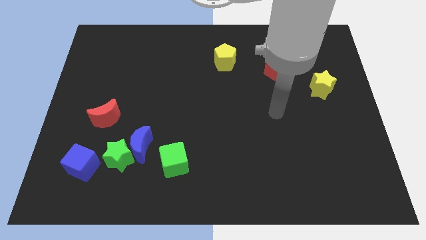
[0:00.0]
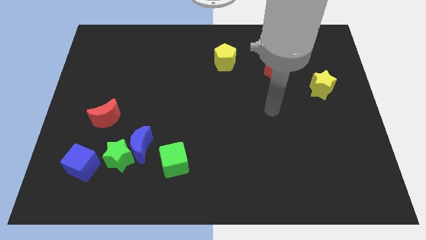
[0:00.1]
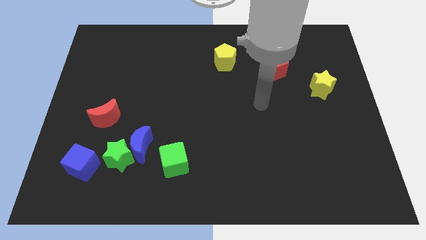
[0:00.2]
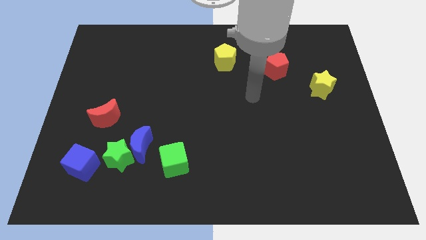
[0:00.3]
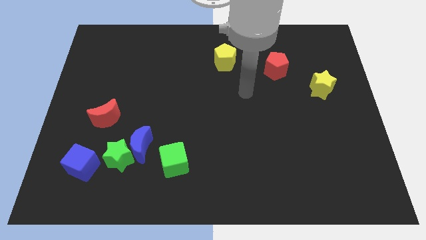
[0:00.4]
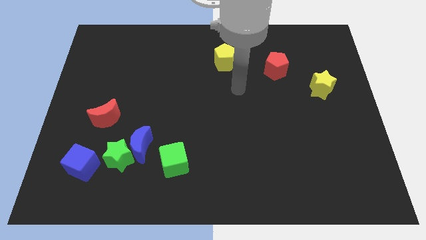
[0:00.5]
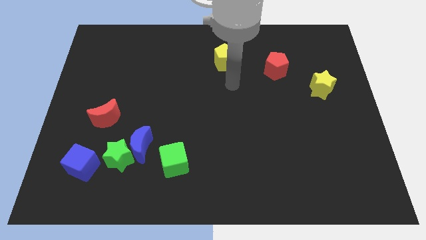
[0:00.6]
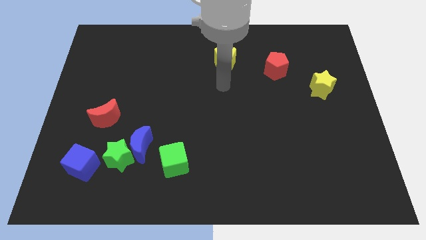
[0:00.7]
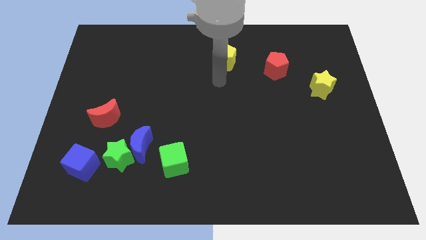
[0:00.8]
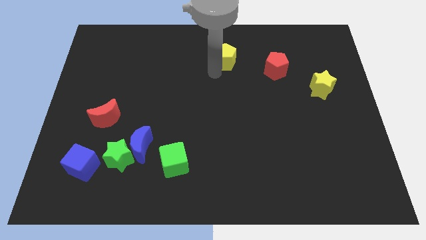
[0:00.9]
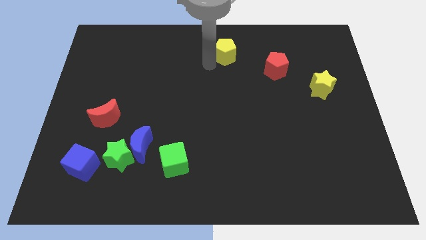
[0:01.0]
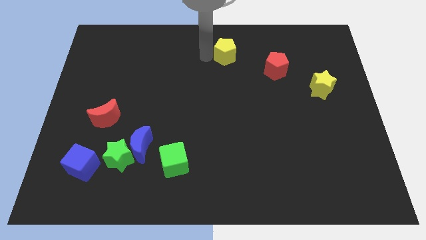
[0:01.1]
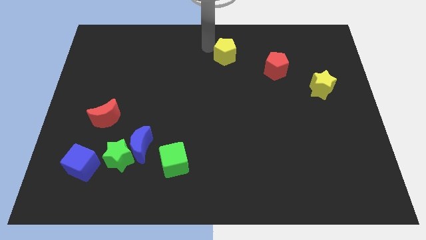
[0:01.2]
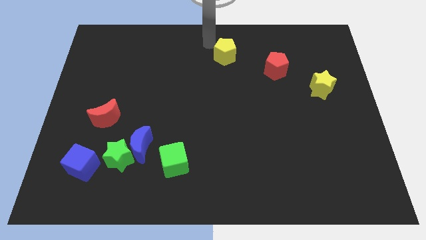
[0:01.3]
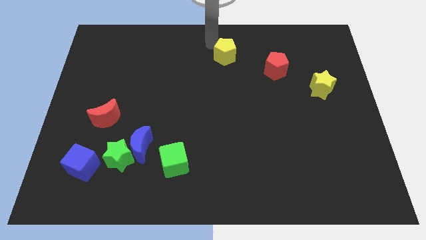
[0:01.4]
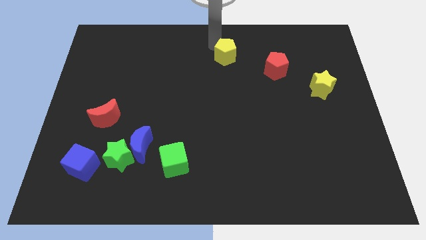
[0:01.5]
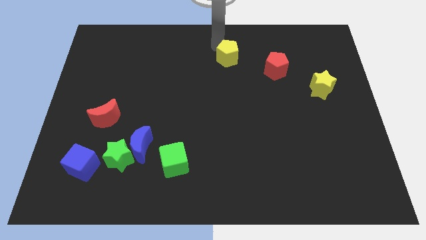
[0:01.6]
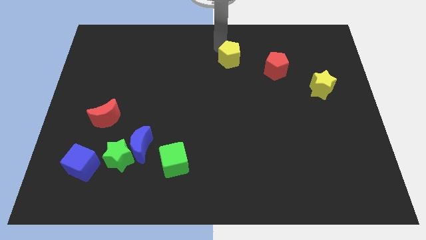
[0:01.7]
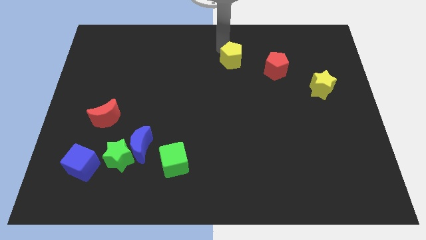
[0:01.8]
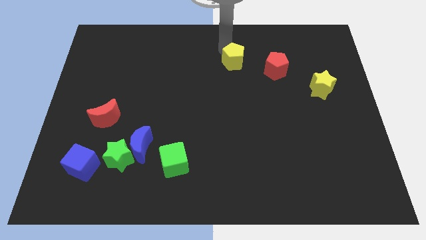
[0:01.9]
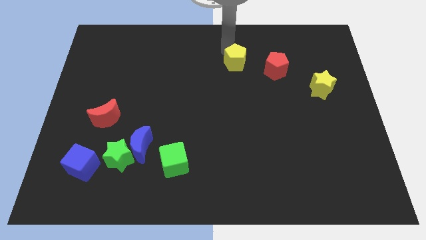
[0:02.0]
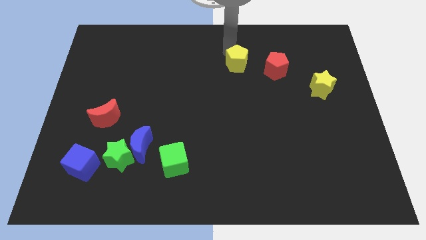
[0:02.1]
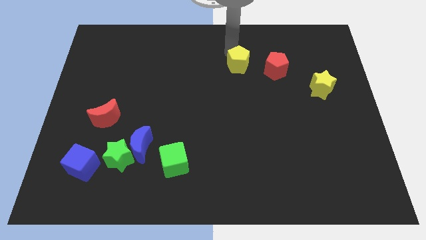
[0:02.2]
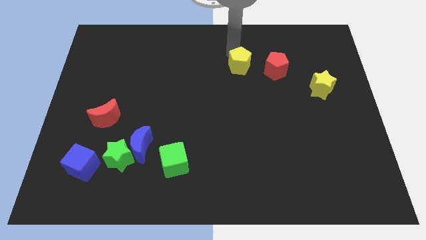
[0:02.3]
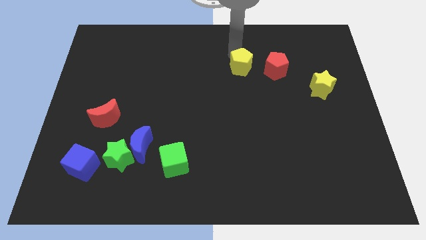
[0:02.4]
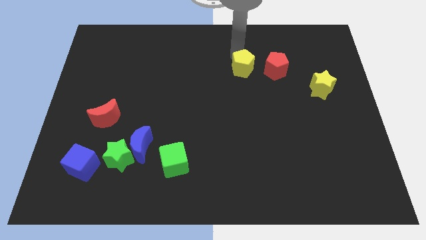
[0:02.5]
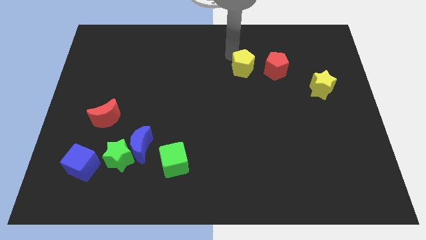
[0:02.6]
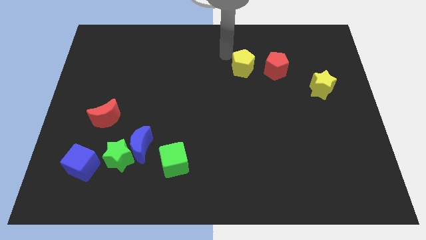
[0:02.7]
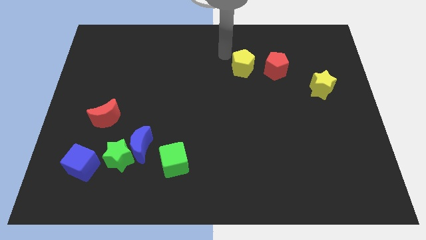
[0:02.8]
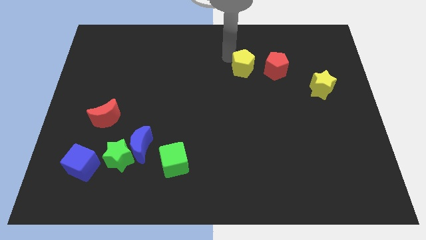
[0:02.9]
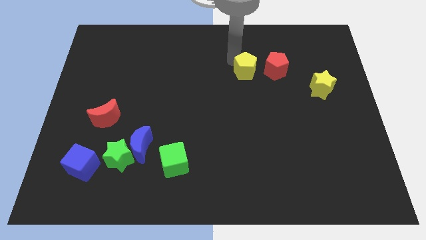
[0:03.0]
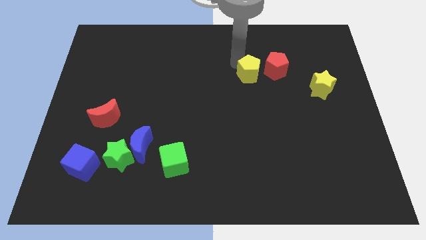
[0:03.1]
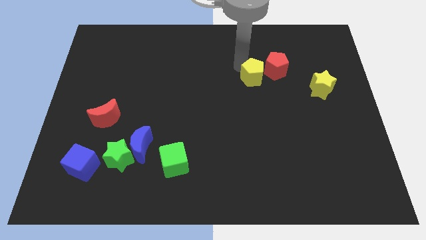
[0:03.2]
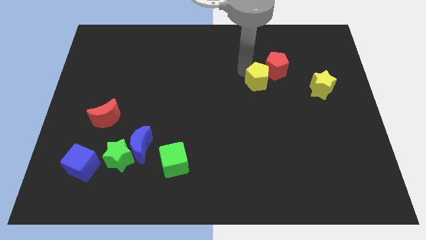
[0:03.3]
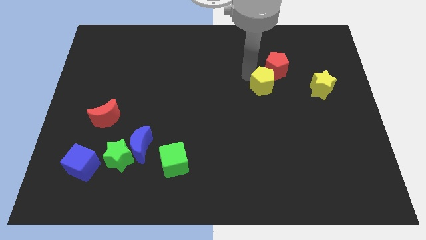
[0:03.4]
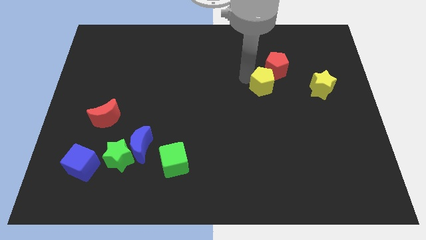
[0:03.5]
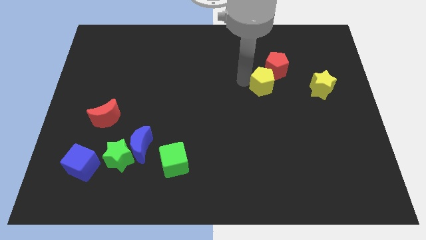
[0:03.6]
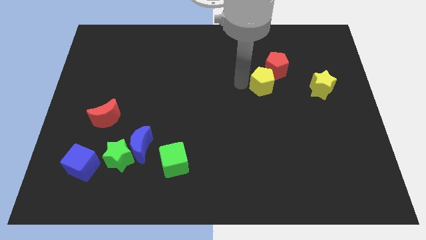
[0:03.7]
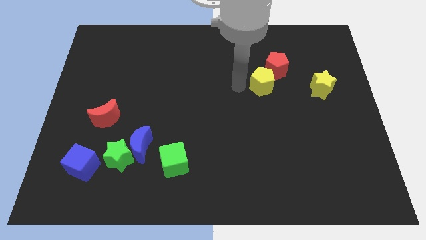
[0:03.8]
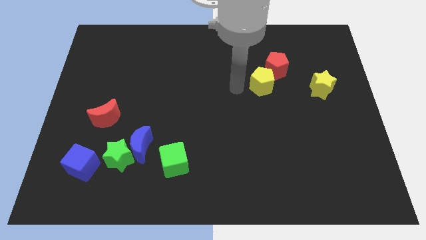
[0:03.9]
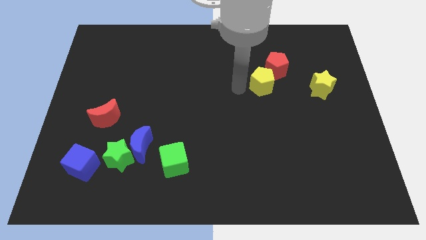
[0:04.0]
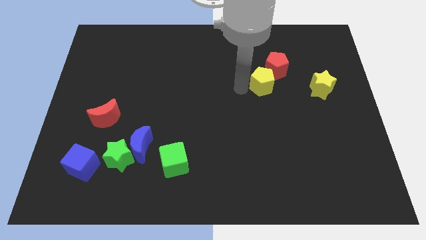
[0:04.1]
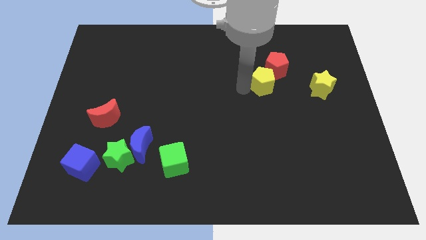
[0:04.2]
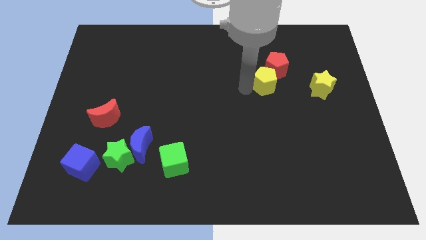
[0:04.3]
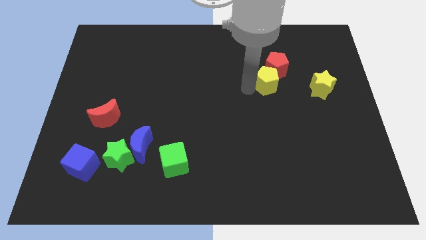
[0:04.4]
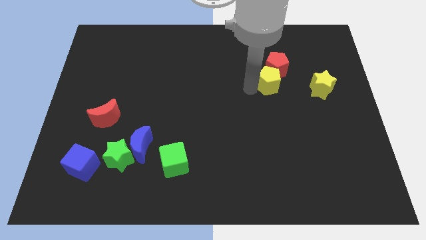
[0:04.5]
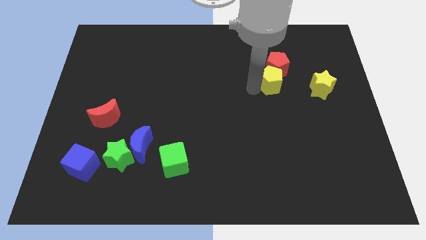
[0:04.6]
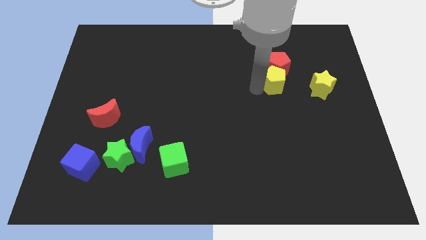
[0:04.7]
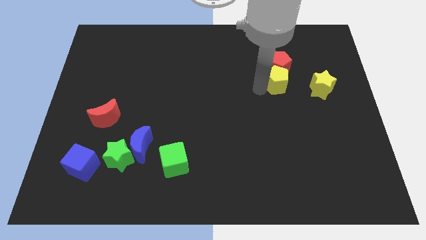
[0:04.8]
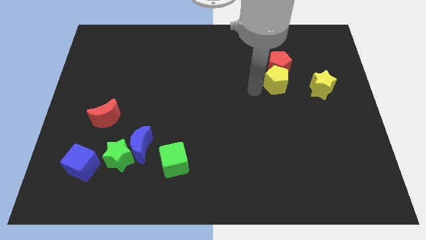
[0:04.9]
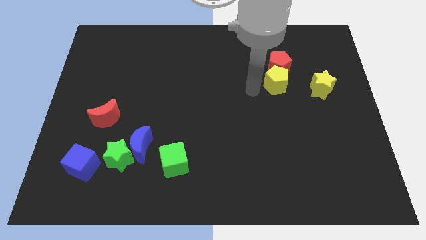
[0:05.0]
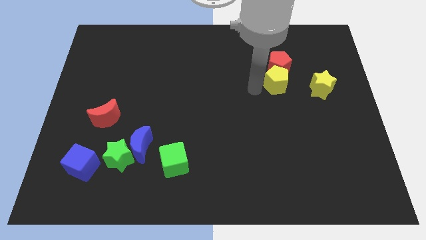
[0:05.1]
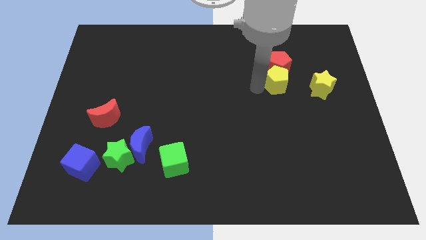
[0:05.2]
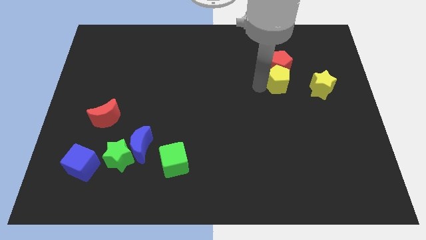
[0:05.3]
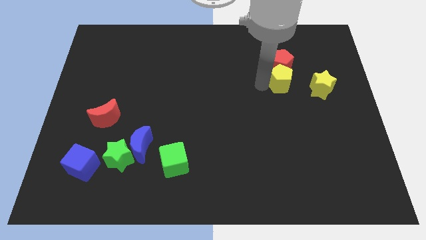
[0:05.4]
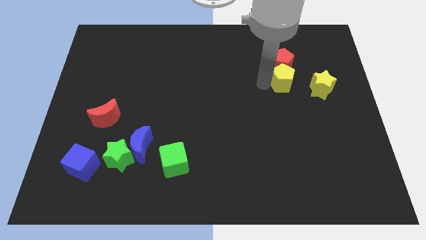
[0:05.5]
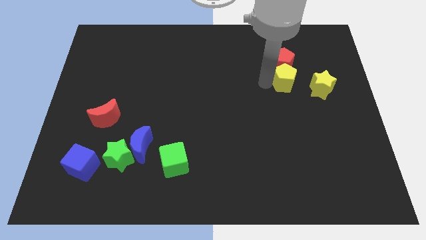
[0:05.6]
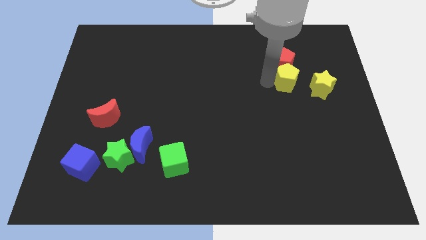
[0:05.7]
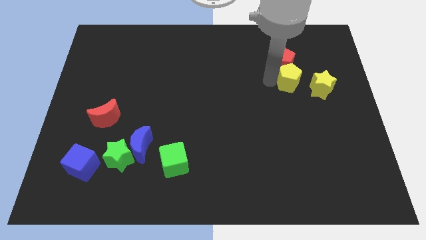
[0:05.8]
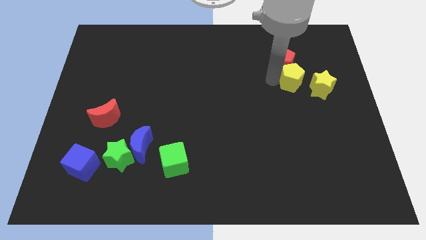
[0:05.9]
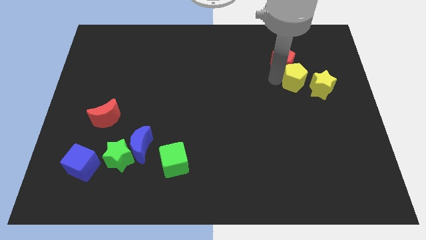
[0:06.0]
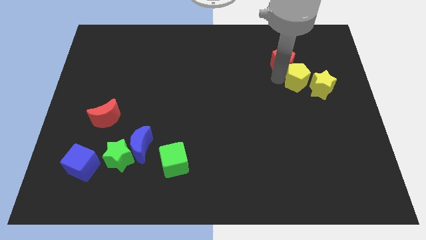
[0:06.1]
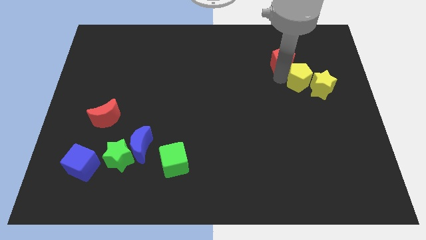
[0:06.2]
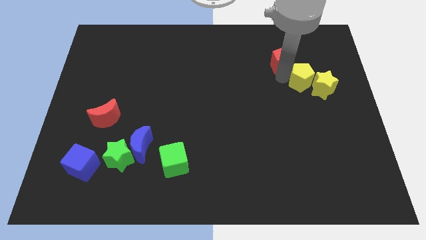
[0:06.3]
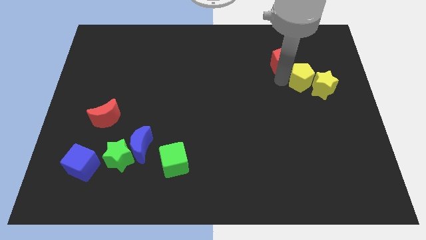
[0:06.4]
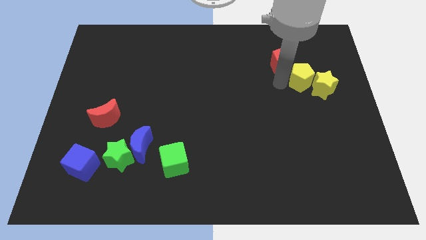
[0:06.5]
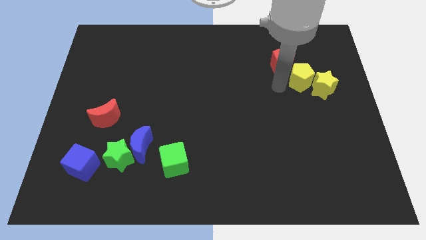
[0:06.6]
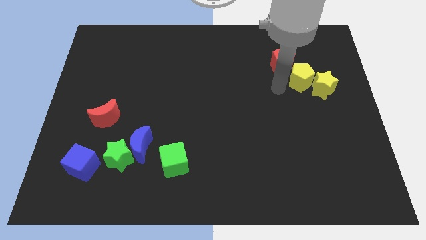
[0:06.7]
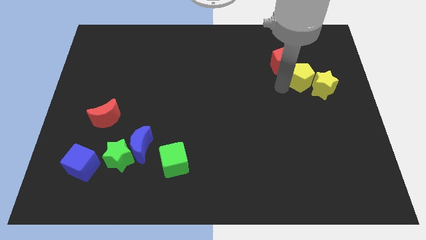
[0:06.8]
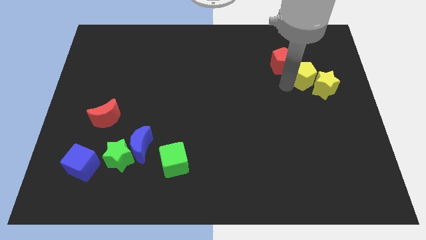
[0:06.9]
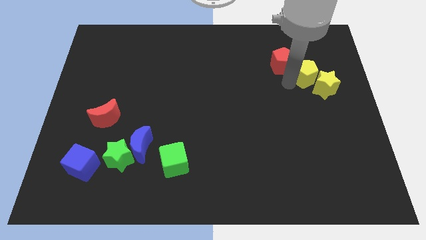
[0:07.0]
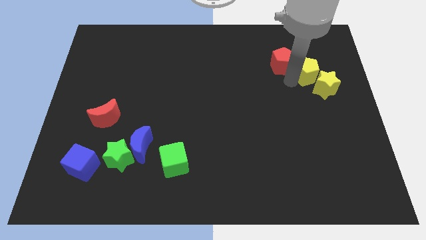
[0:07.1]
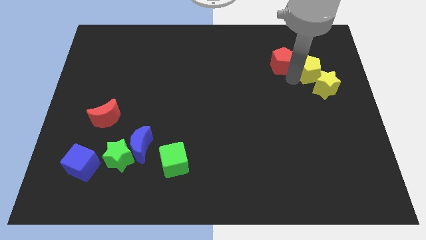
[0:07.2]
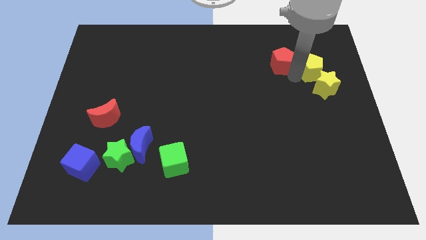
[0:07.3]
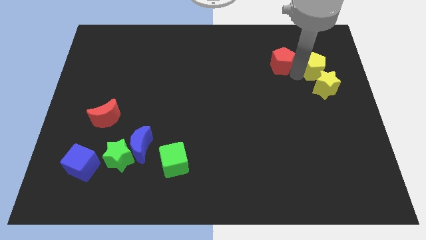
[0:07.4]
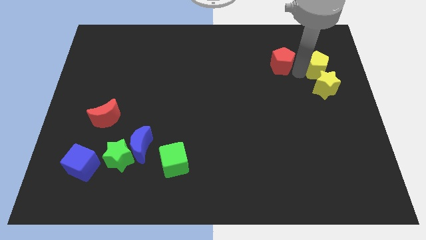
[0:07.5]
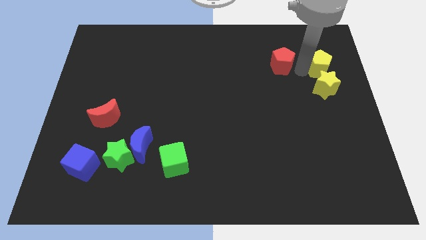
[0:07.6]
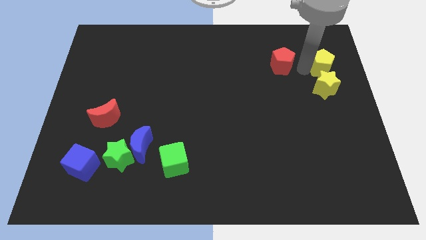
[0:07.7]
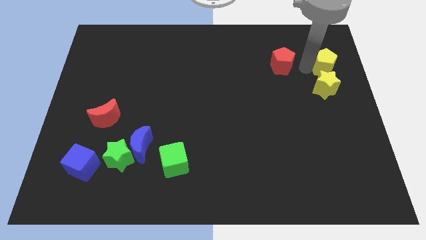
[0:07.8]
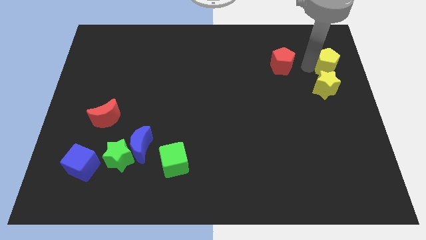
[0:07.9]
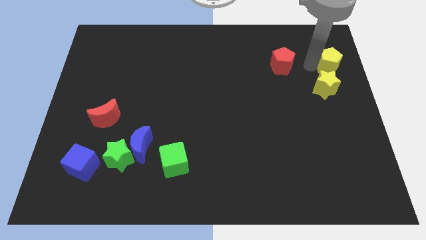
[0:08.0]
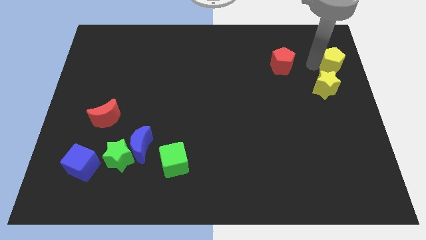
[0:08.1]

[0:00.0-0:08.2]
move the yellow pentagon to the right side
